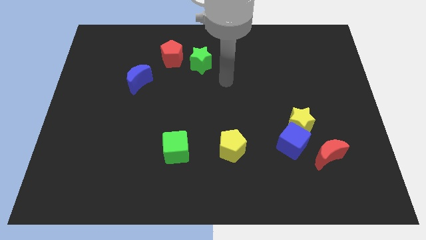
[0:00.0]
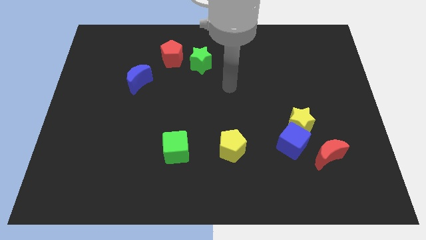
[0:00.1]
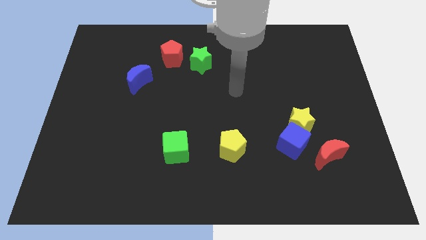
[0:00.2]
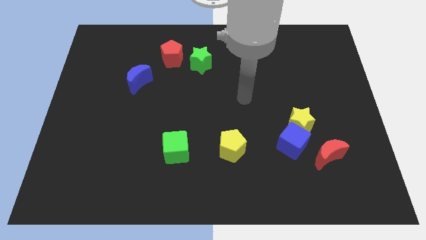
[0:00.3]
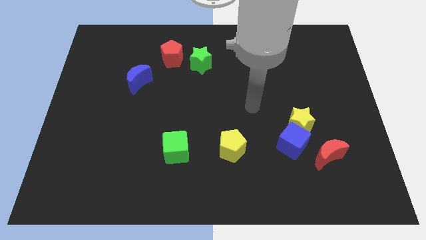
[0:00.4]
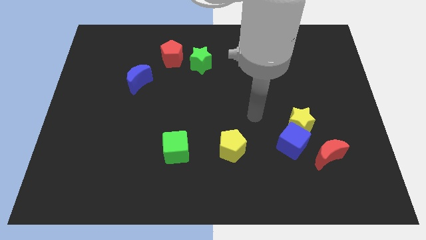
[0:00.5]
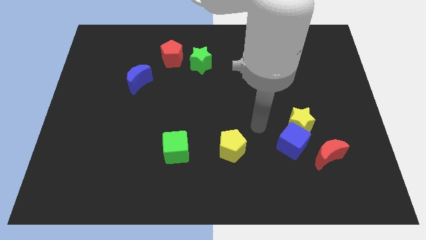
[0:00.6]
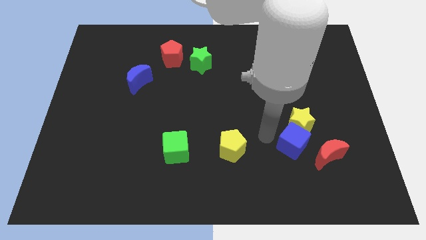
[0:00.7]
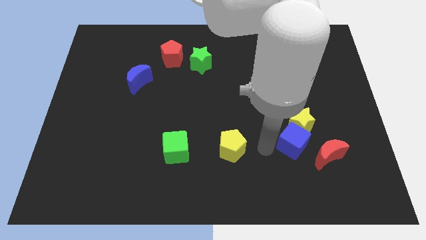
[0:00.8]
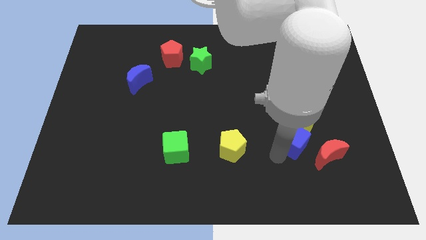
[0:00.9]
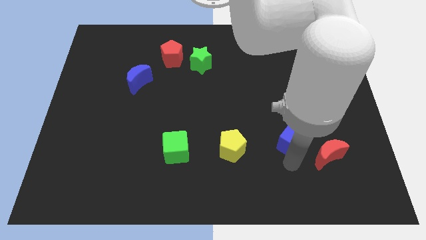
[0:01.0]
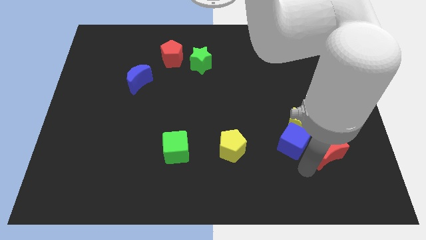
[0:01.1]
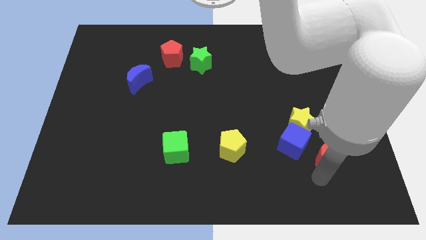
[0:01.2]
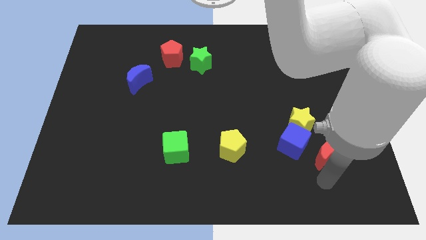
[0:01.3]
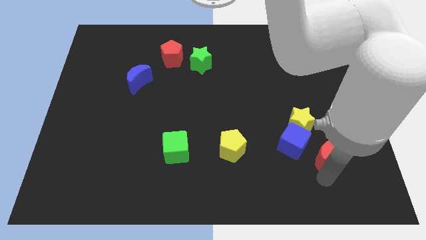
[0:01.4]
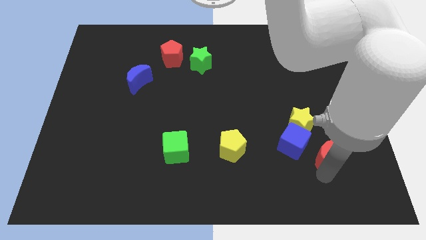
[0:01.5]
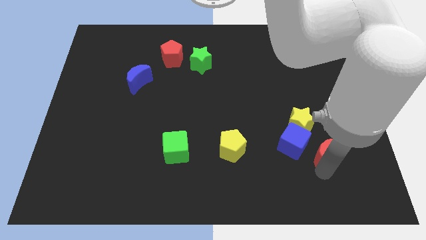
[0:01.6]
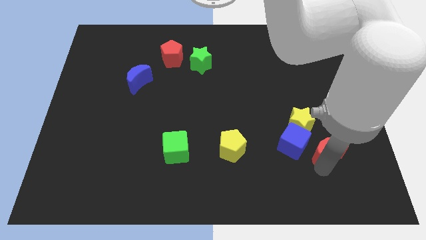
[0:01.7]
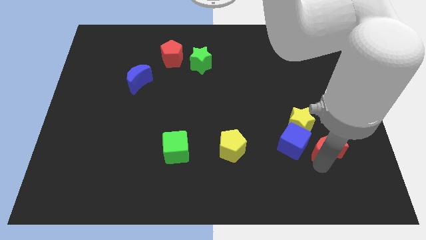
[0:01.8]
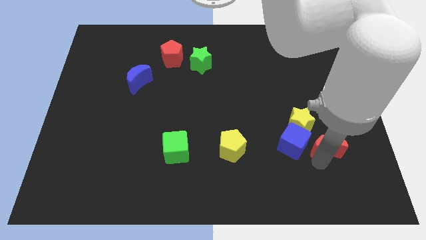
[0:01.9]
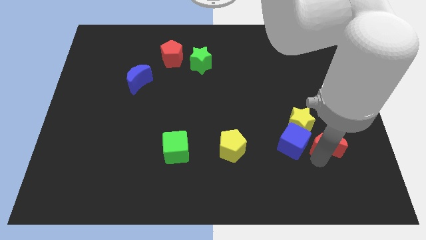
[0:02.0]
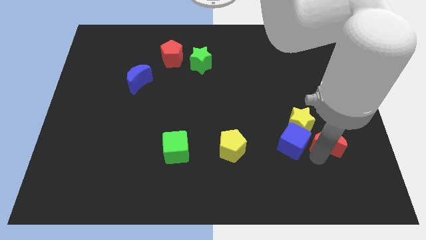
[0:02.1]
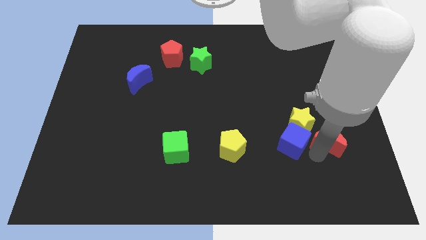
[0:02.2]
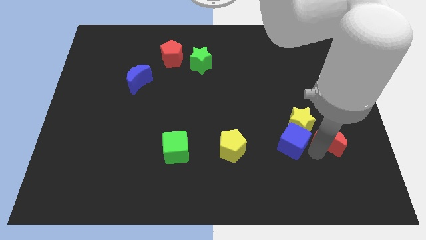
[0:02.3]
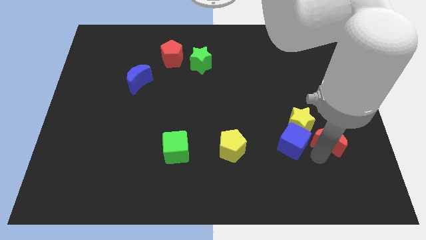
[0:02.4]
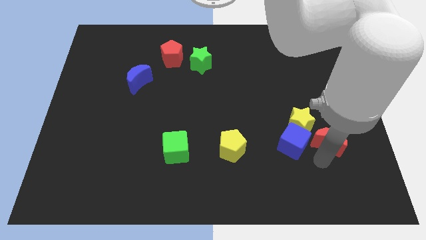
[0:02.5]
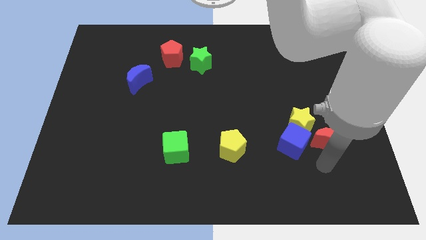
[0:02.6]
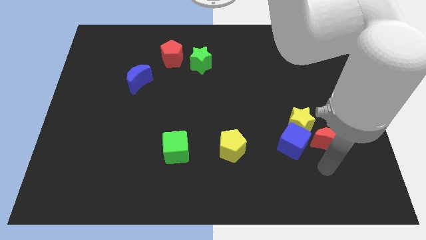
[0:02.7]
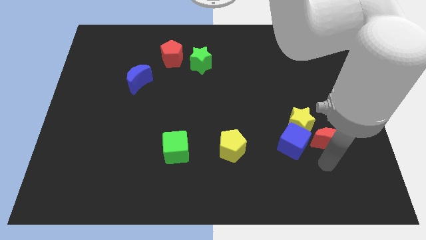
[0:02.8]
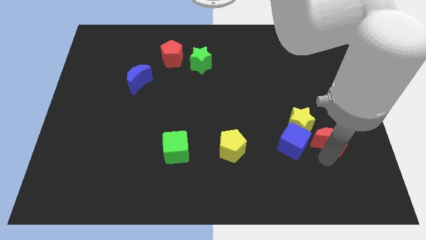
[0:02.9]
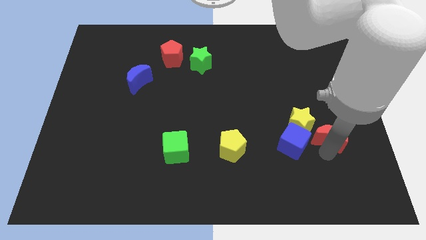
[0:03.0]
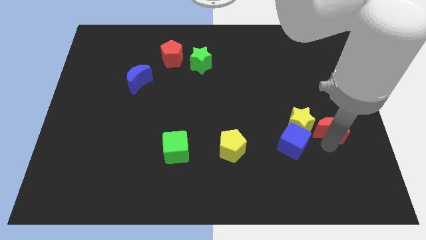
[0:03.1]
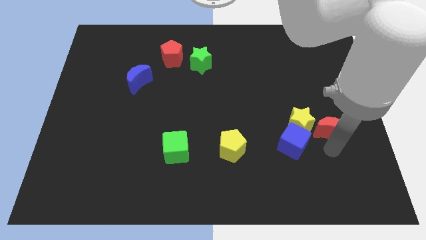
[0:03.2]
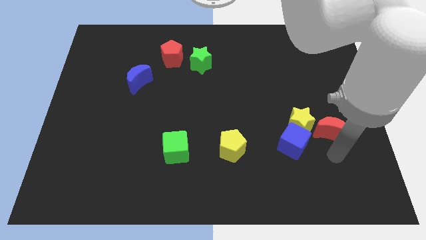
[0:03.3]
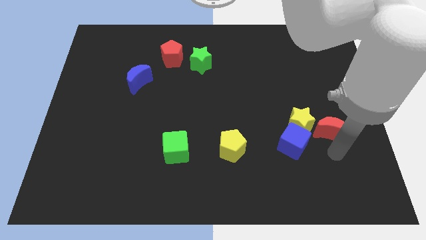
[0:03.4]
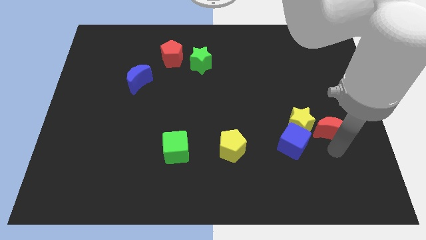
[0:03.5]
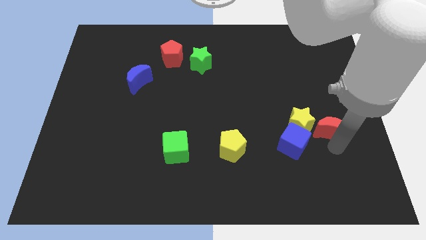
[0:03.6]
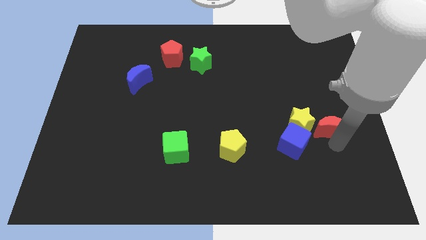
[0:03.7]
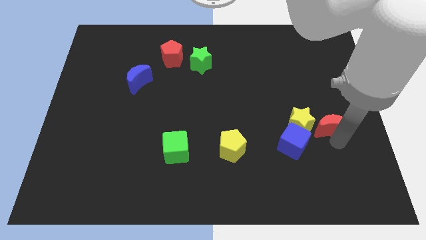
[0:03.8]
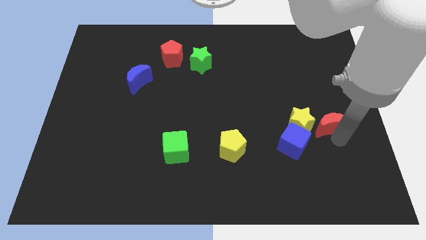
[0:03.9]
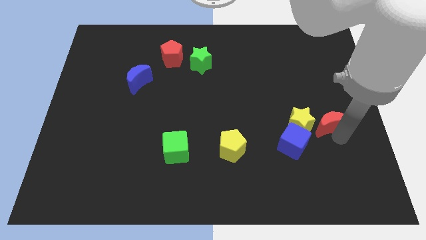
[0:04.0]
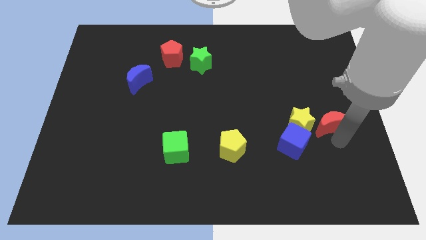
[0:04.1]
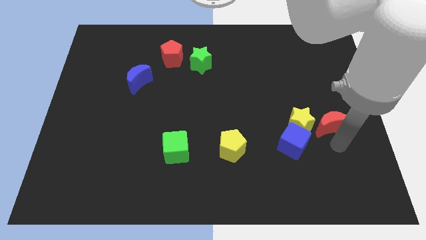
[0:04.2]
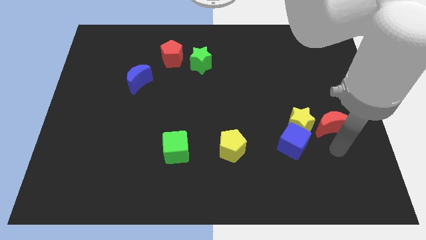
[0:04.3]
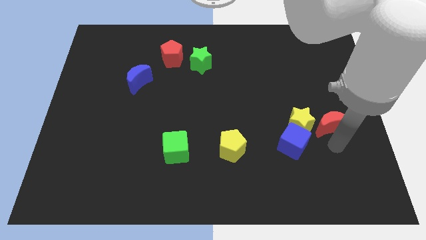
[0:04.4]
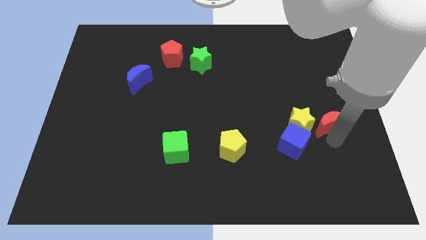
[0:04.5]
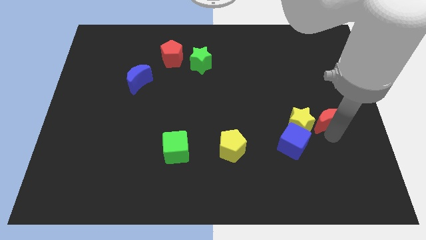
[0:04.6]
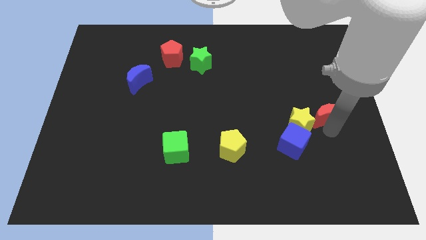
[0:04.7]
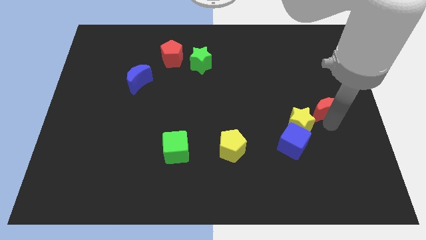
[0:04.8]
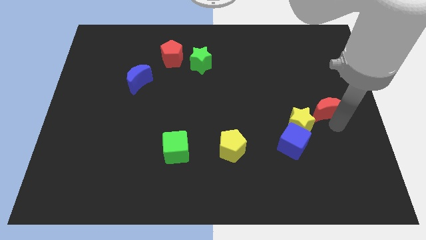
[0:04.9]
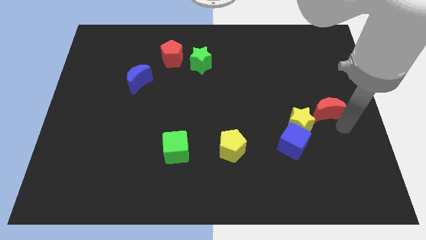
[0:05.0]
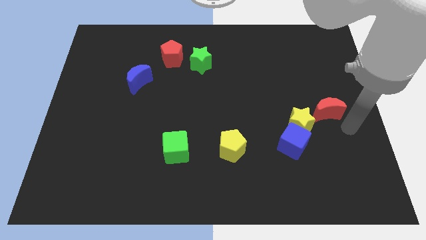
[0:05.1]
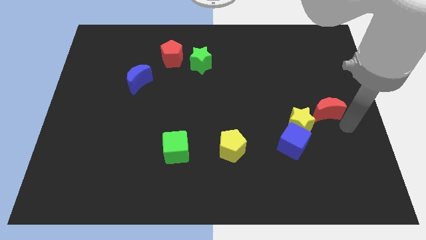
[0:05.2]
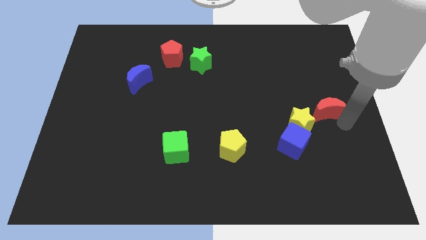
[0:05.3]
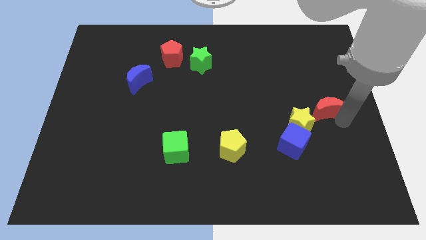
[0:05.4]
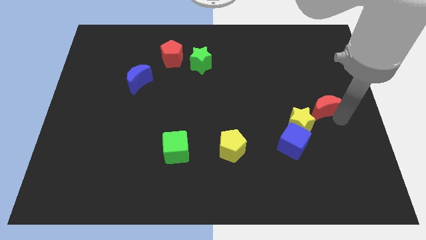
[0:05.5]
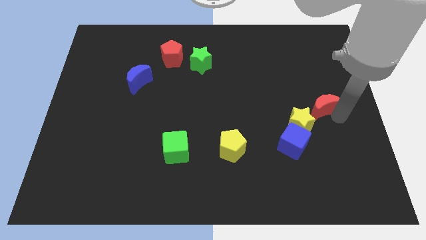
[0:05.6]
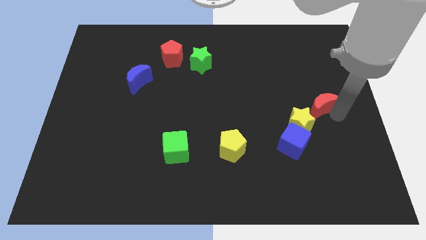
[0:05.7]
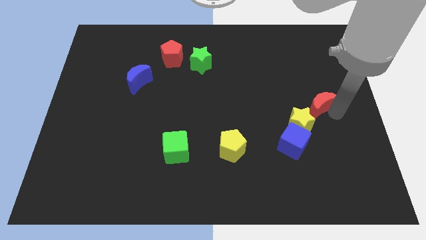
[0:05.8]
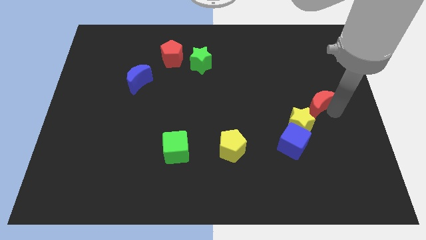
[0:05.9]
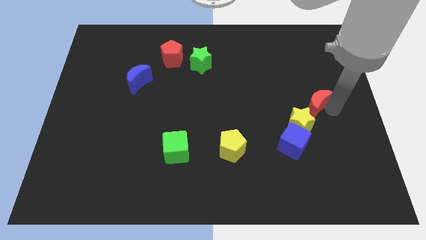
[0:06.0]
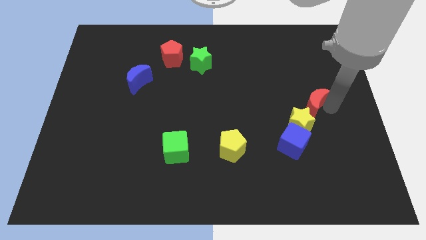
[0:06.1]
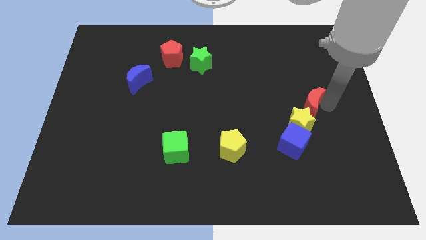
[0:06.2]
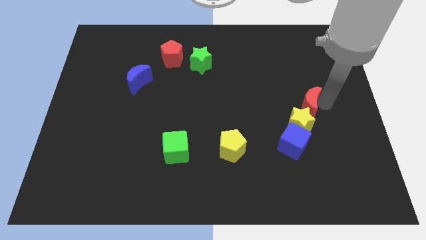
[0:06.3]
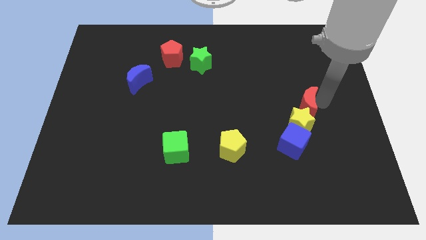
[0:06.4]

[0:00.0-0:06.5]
push the red moon above the blue cube

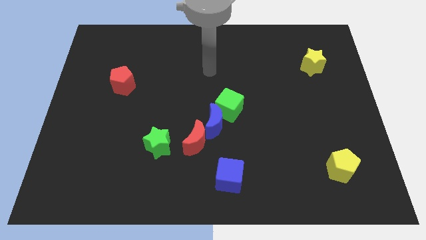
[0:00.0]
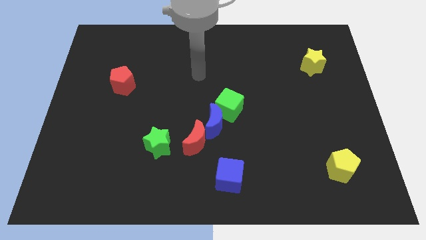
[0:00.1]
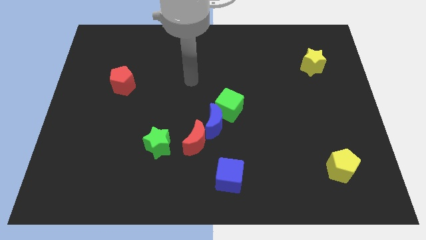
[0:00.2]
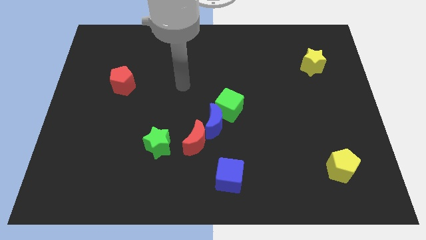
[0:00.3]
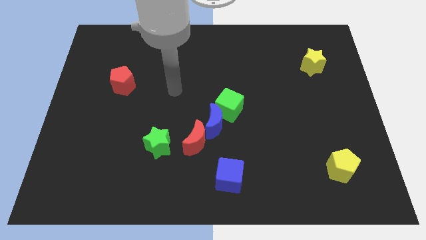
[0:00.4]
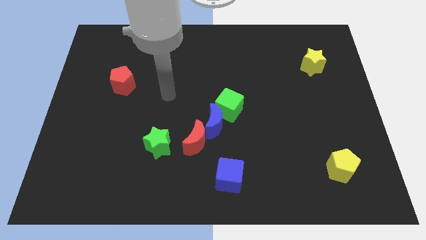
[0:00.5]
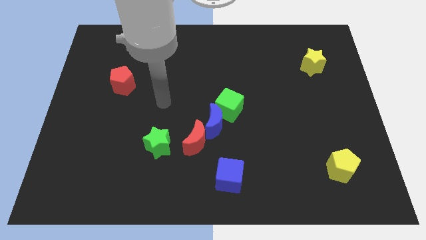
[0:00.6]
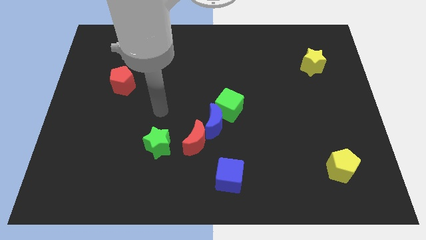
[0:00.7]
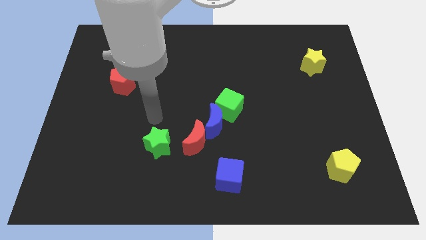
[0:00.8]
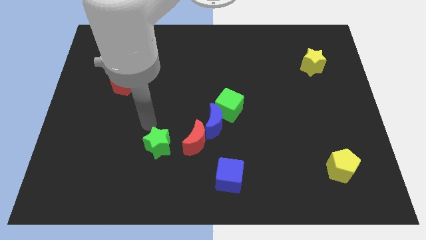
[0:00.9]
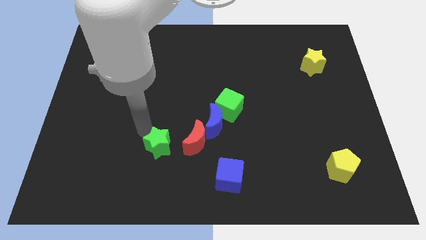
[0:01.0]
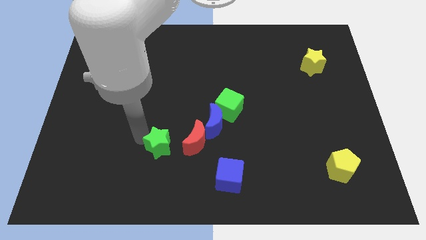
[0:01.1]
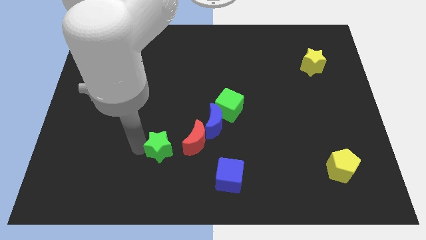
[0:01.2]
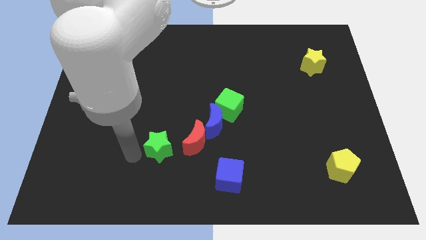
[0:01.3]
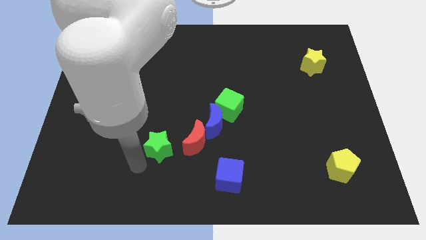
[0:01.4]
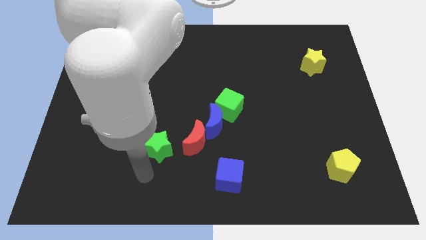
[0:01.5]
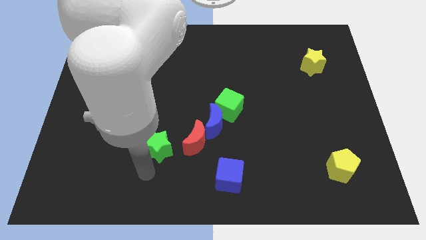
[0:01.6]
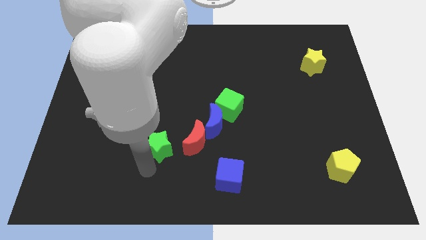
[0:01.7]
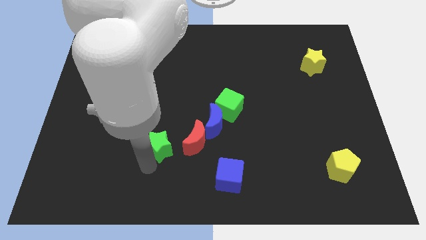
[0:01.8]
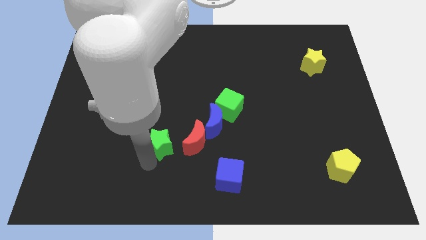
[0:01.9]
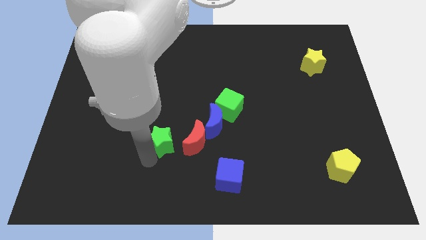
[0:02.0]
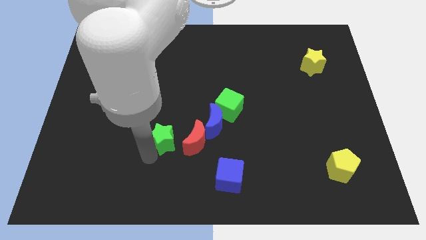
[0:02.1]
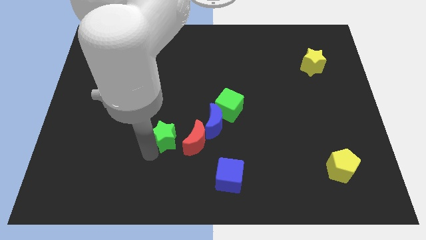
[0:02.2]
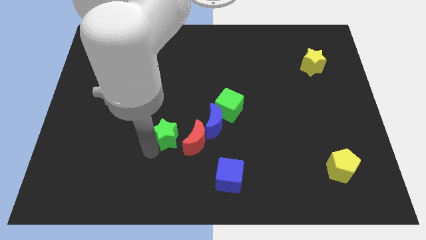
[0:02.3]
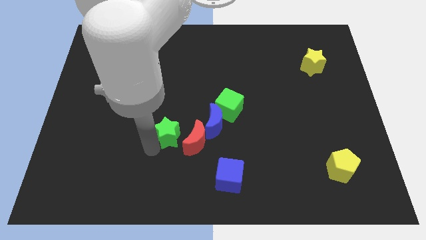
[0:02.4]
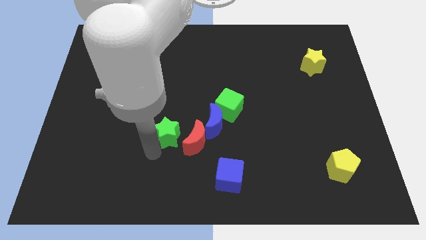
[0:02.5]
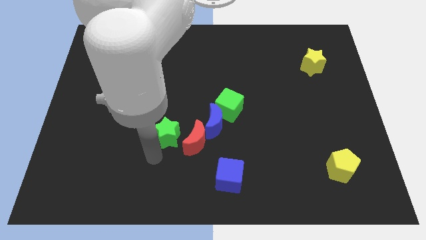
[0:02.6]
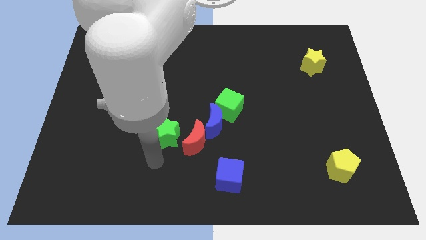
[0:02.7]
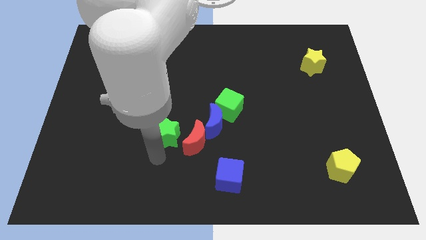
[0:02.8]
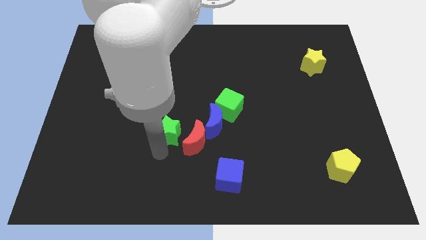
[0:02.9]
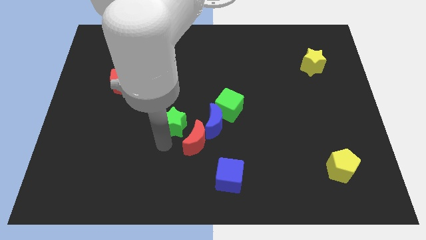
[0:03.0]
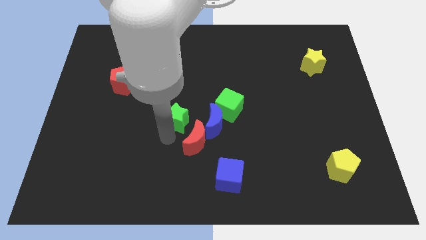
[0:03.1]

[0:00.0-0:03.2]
put the green star to the left of the green cube
